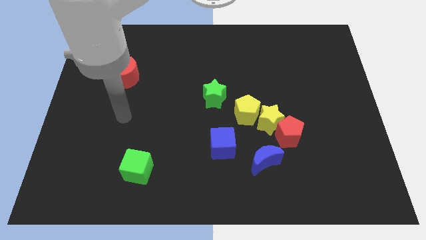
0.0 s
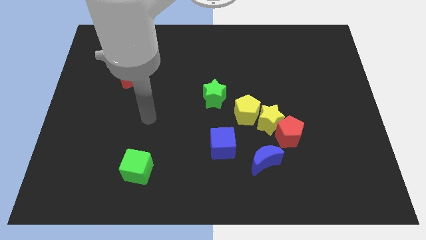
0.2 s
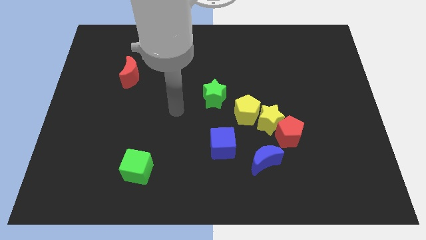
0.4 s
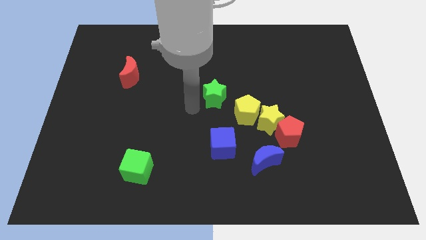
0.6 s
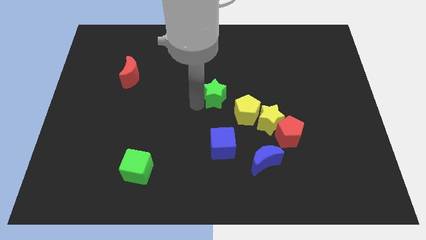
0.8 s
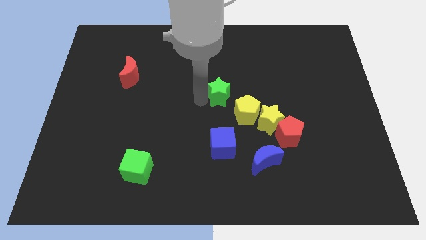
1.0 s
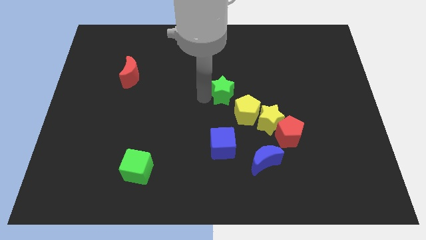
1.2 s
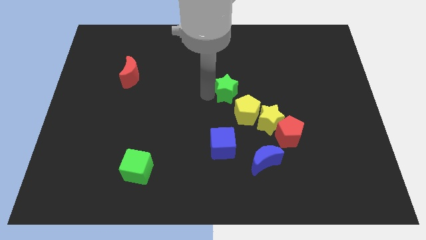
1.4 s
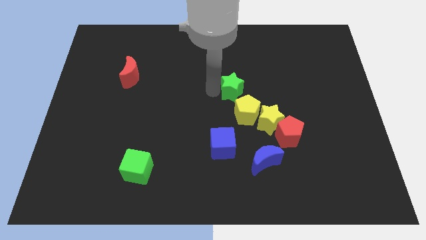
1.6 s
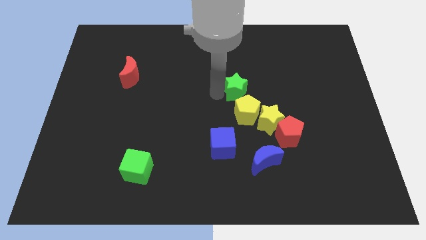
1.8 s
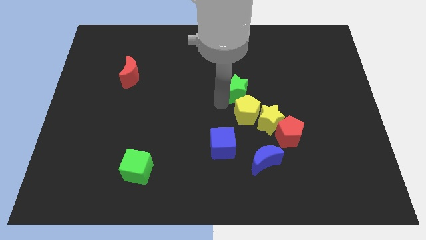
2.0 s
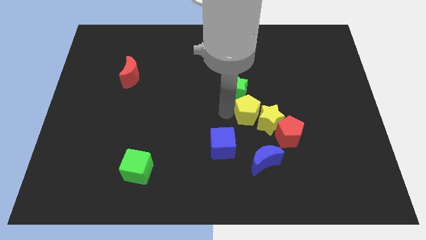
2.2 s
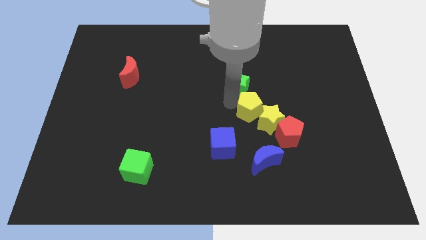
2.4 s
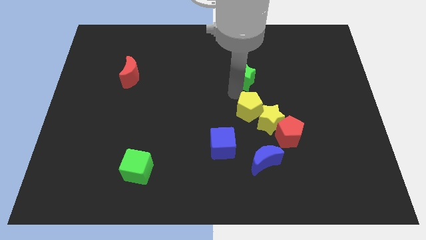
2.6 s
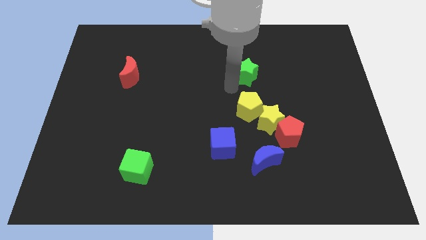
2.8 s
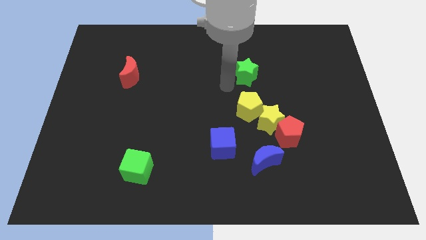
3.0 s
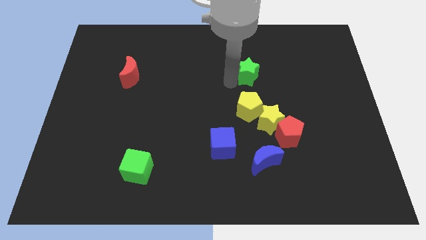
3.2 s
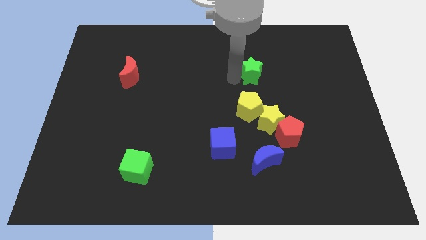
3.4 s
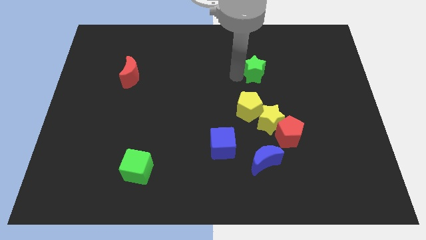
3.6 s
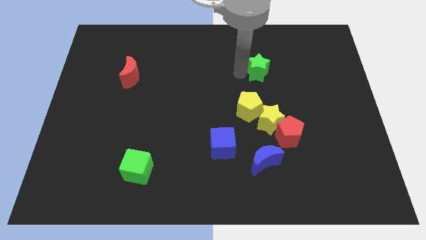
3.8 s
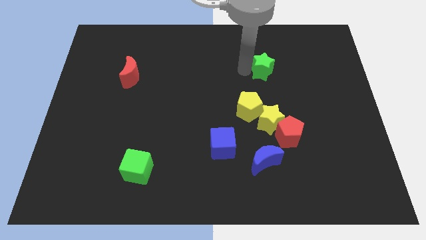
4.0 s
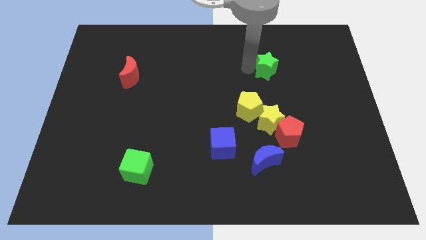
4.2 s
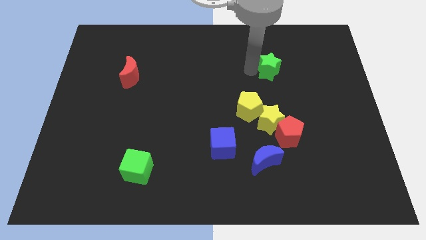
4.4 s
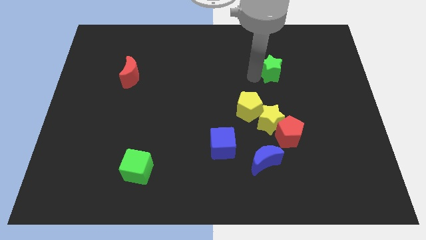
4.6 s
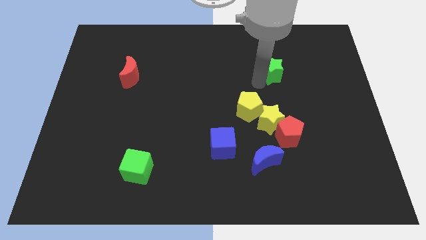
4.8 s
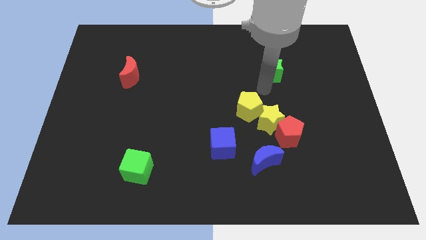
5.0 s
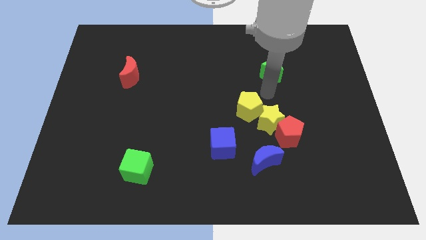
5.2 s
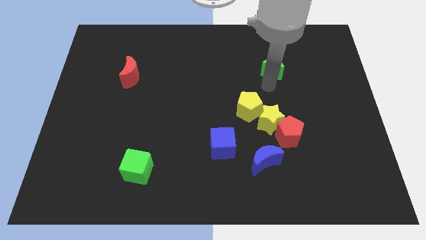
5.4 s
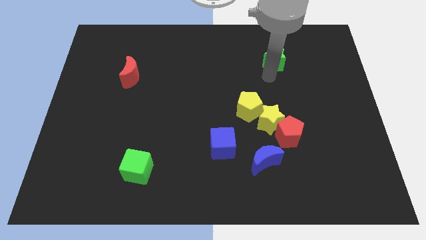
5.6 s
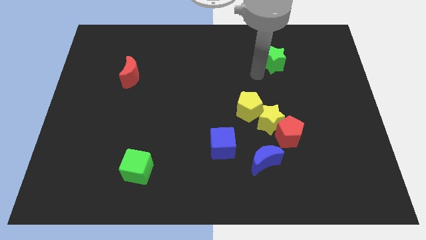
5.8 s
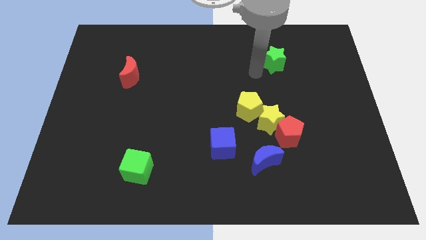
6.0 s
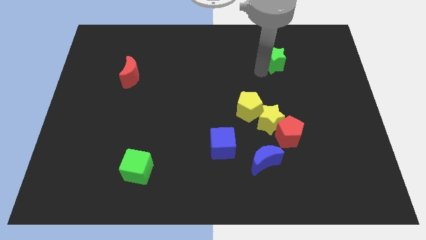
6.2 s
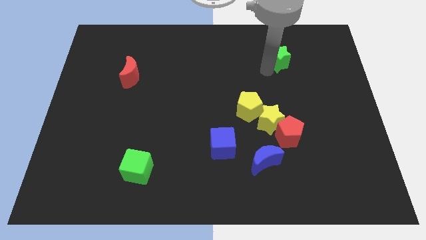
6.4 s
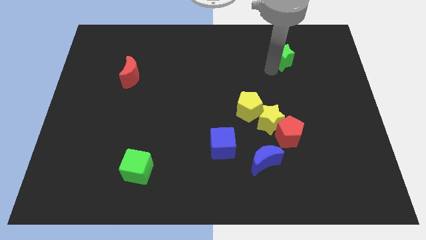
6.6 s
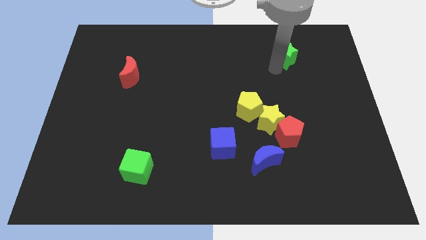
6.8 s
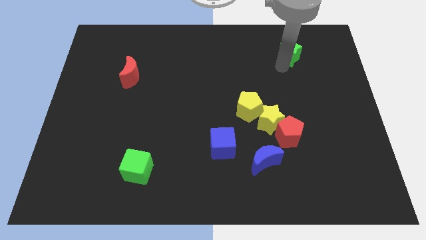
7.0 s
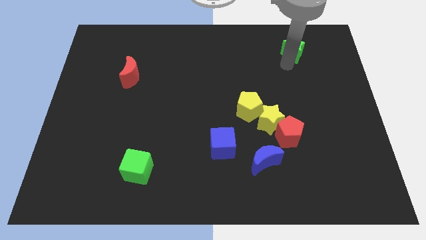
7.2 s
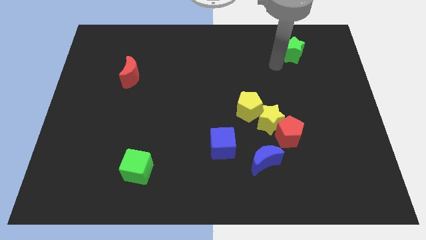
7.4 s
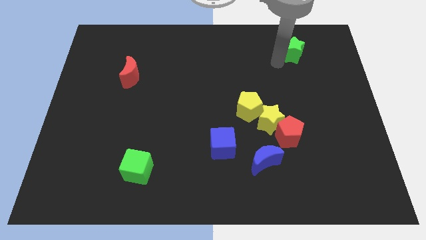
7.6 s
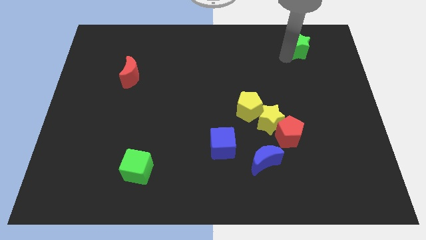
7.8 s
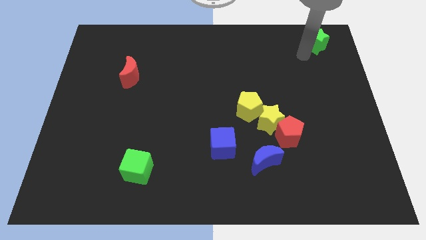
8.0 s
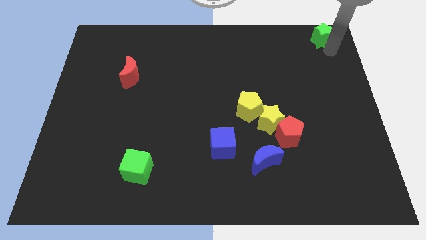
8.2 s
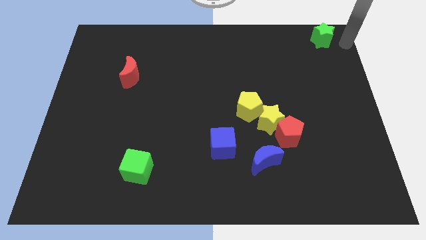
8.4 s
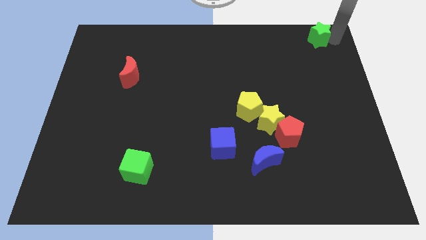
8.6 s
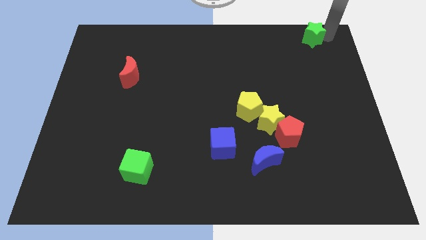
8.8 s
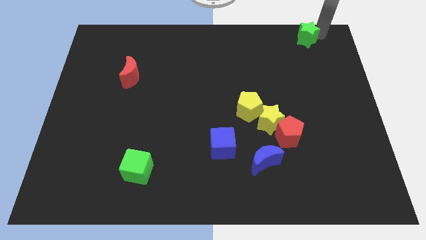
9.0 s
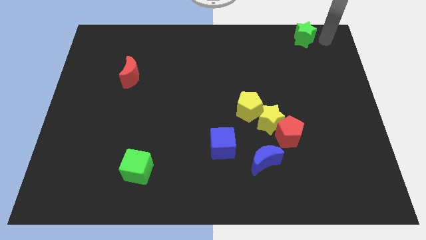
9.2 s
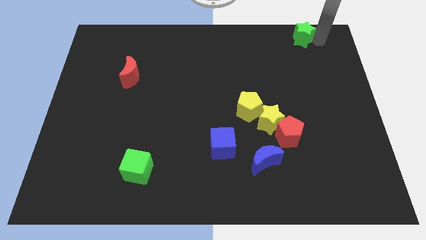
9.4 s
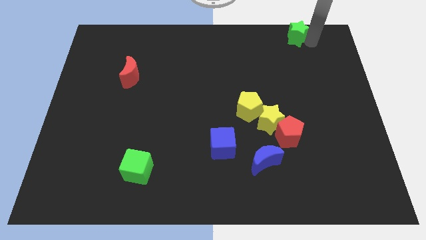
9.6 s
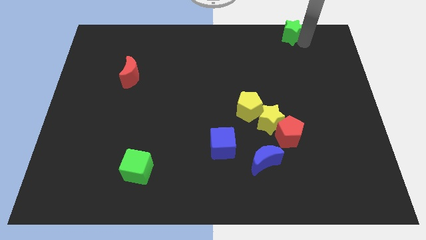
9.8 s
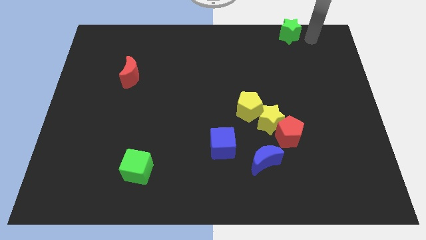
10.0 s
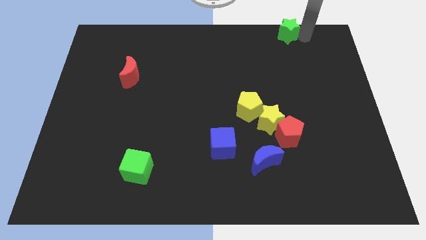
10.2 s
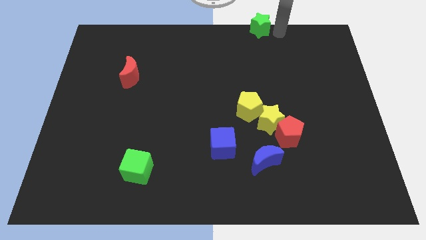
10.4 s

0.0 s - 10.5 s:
put the green star to the top side

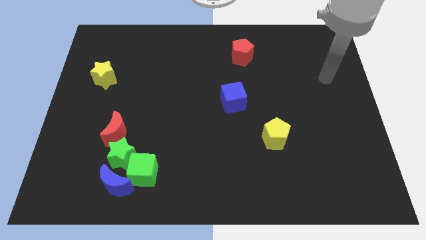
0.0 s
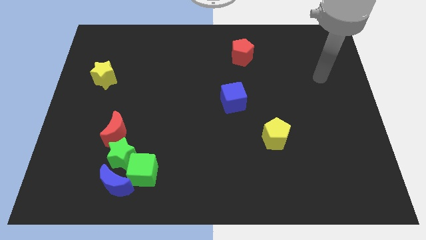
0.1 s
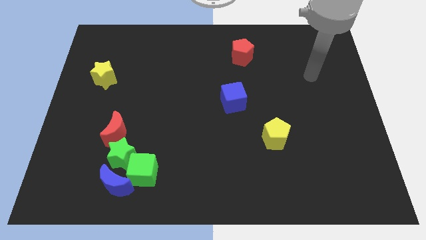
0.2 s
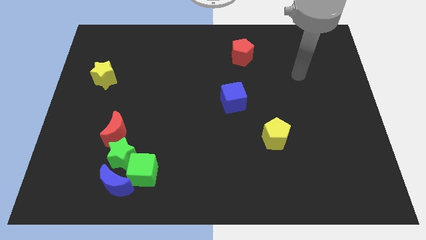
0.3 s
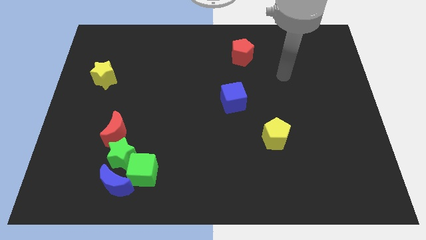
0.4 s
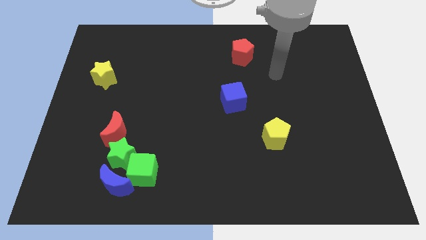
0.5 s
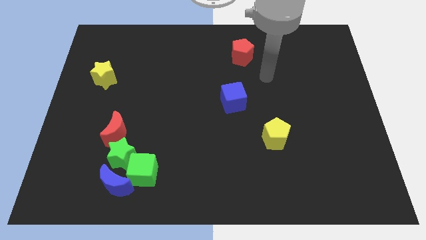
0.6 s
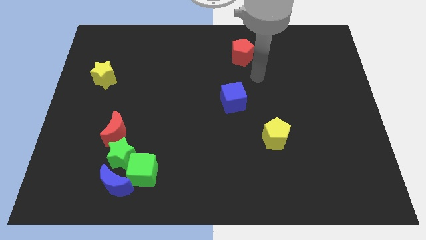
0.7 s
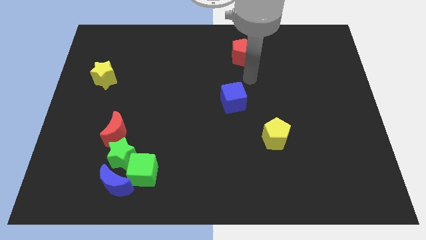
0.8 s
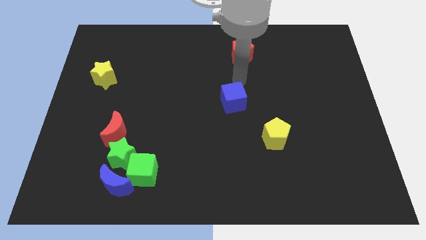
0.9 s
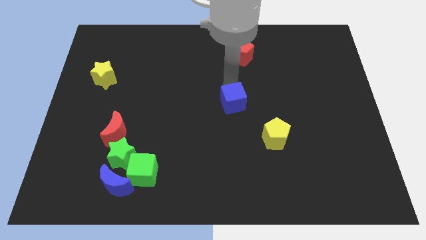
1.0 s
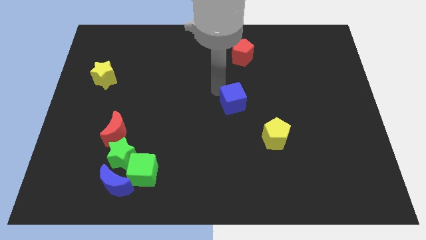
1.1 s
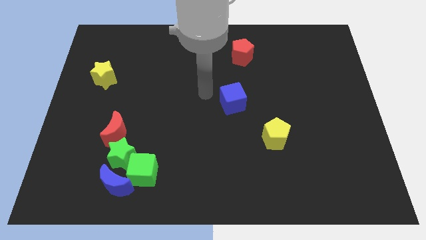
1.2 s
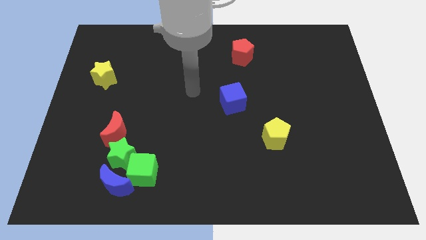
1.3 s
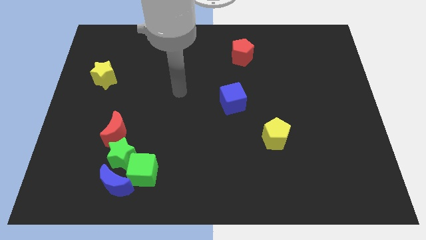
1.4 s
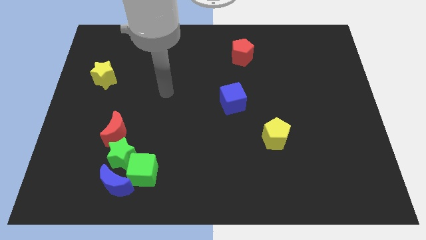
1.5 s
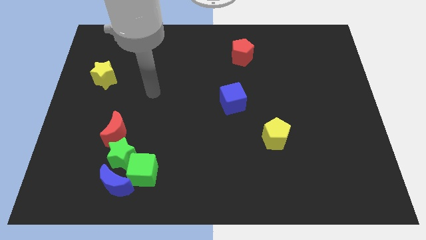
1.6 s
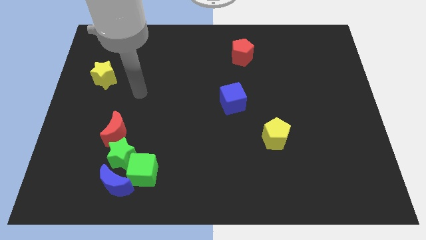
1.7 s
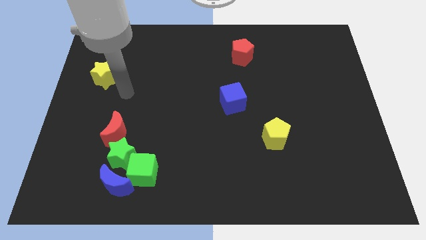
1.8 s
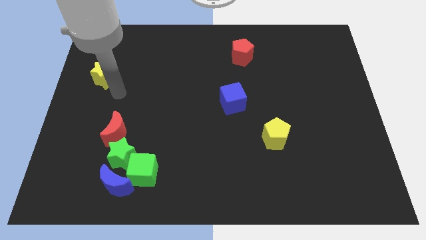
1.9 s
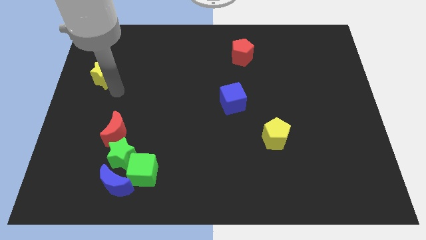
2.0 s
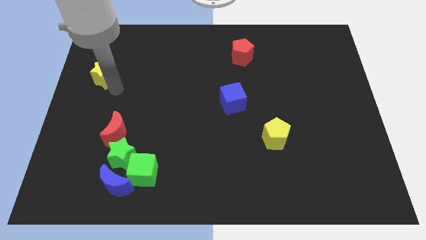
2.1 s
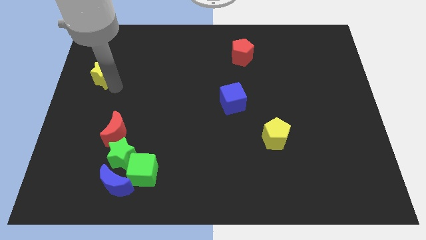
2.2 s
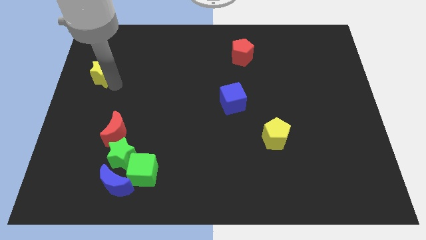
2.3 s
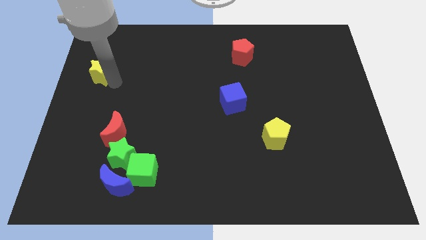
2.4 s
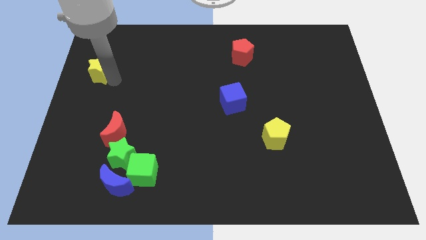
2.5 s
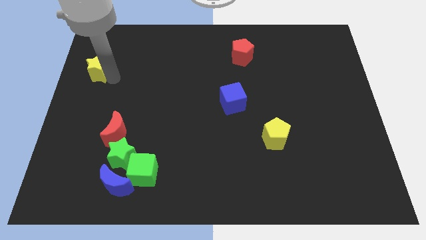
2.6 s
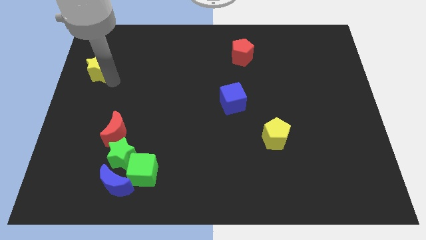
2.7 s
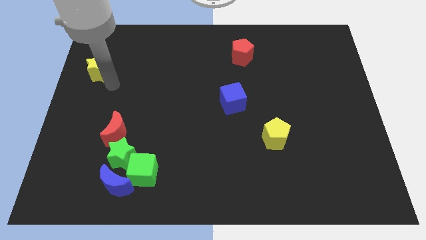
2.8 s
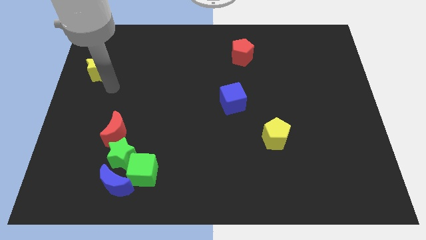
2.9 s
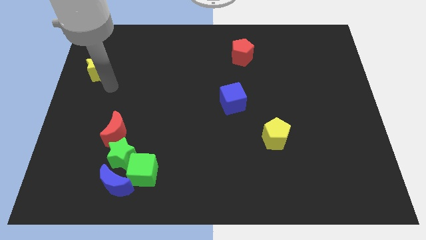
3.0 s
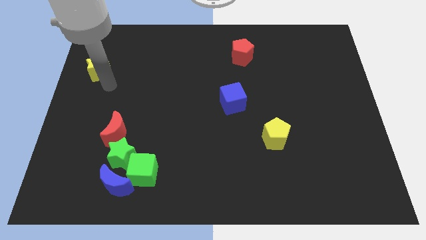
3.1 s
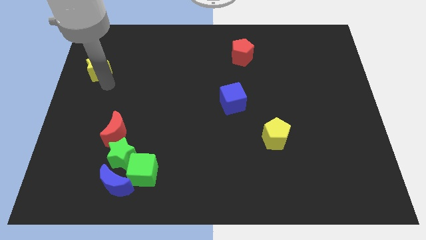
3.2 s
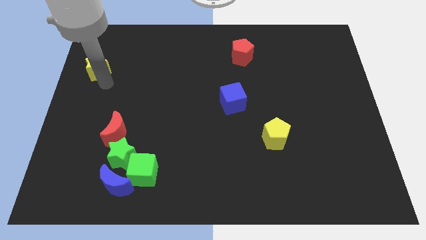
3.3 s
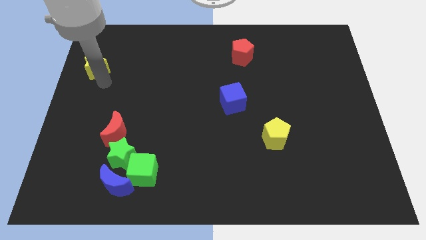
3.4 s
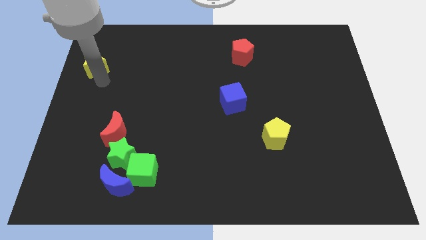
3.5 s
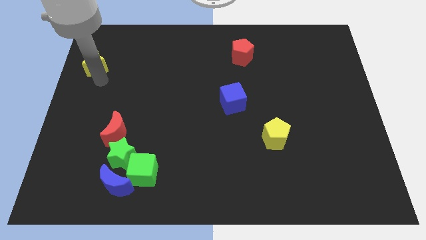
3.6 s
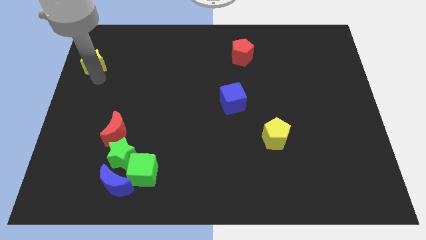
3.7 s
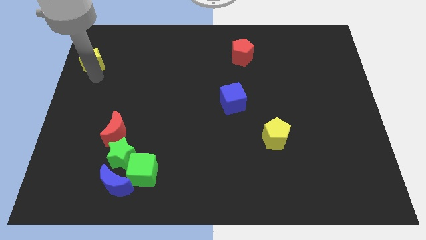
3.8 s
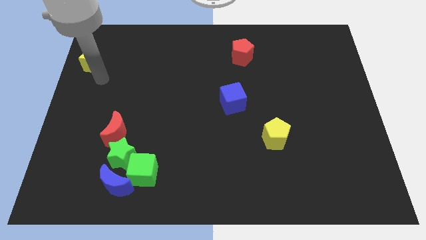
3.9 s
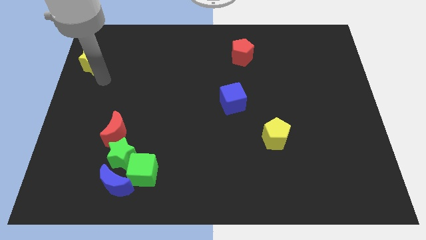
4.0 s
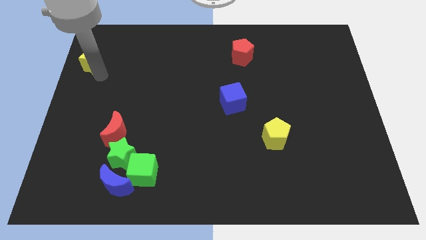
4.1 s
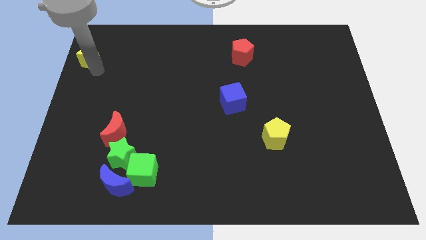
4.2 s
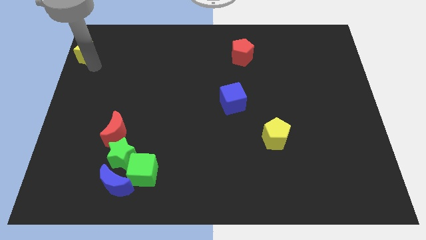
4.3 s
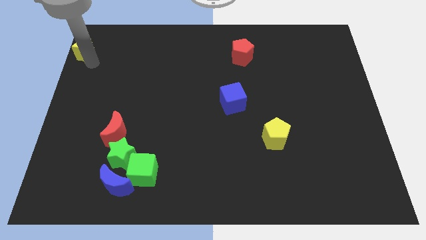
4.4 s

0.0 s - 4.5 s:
move the yellow star to the top left corner
